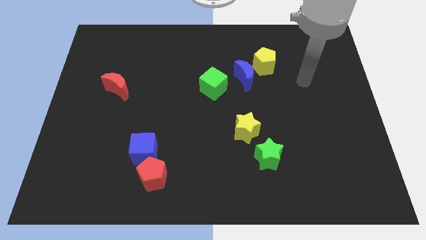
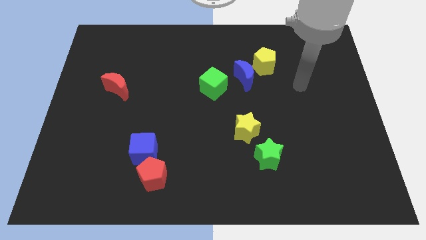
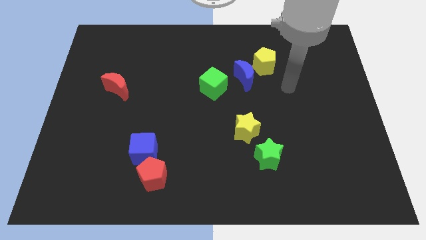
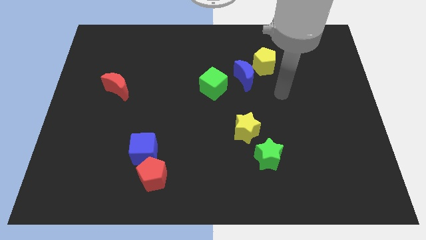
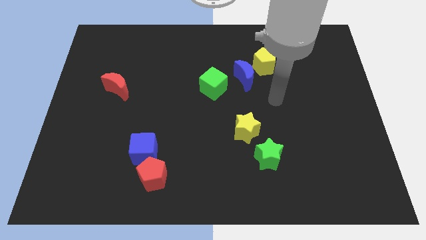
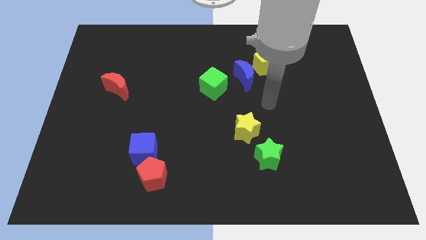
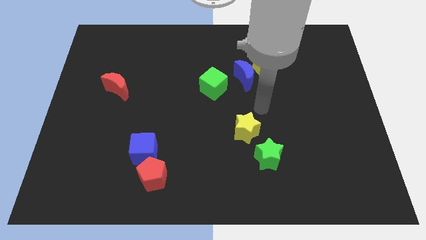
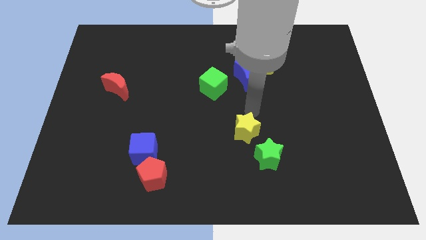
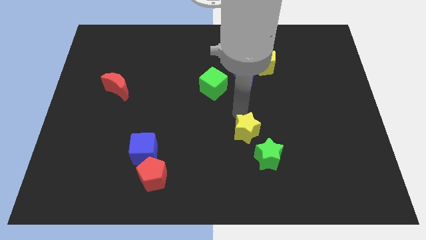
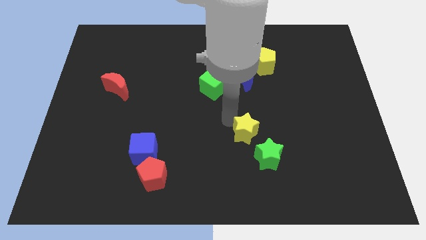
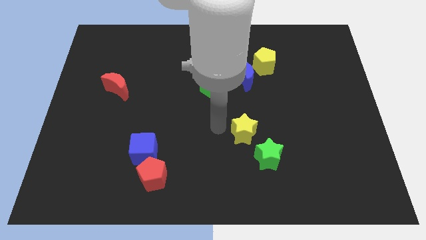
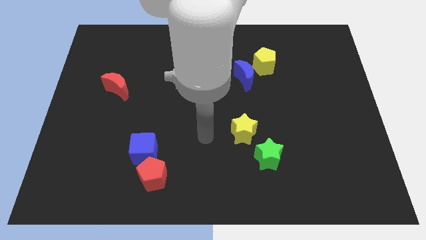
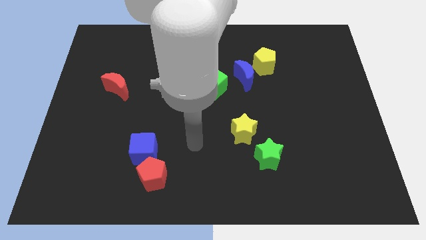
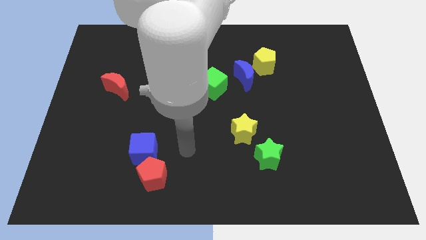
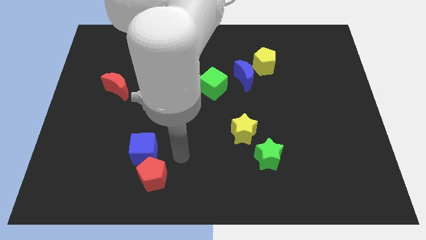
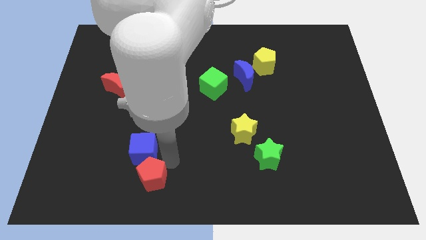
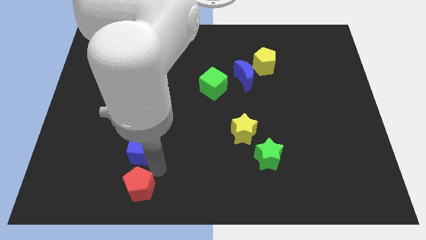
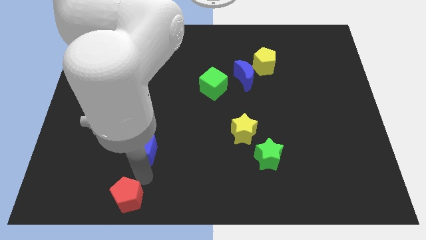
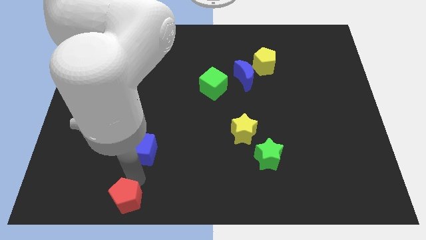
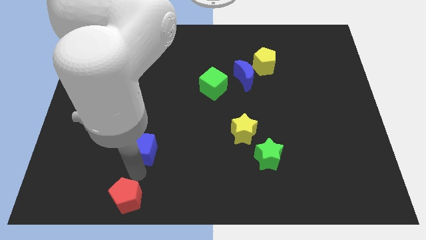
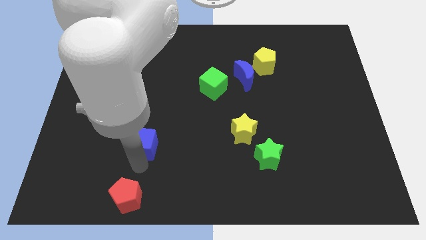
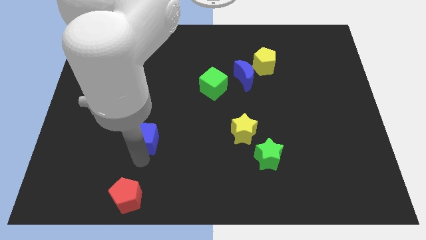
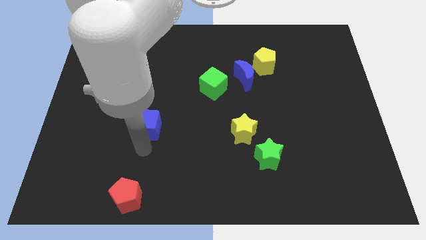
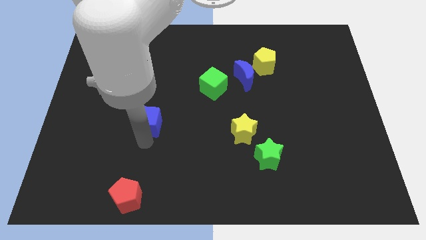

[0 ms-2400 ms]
slightly move the blue cube up

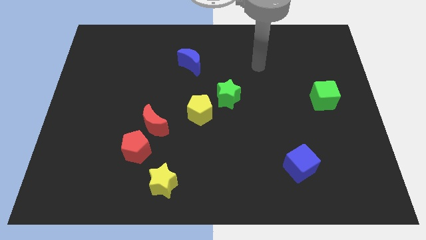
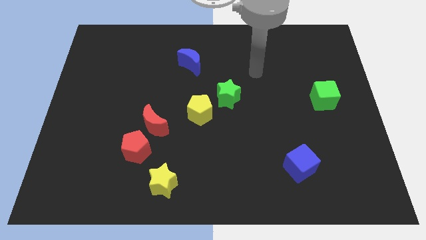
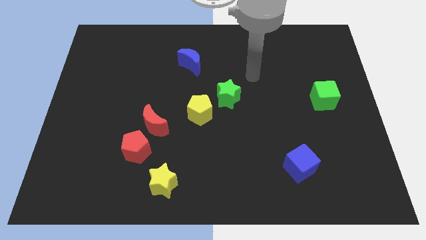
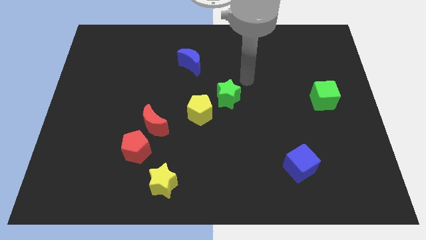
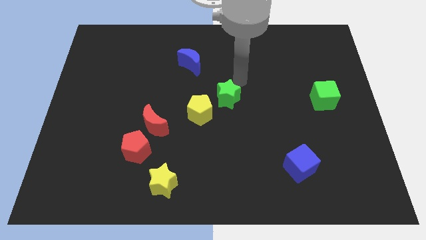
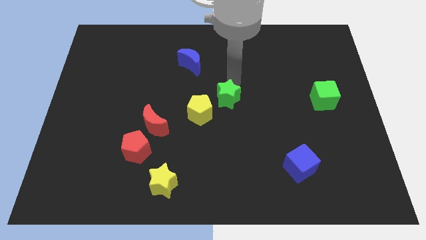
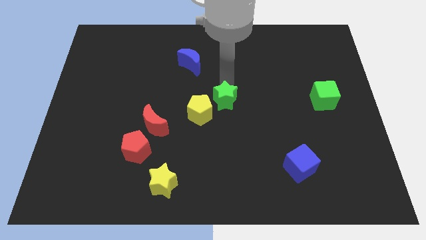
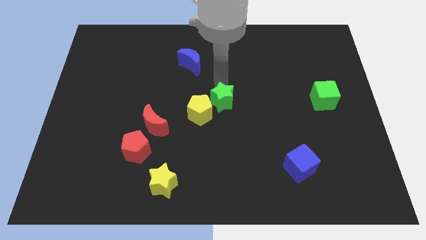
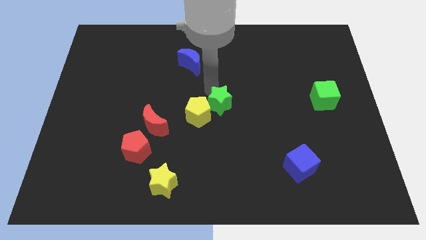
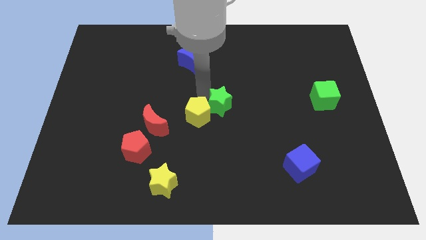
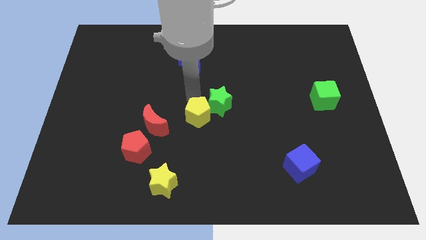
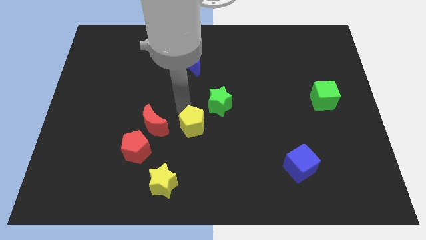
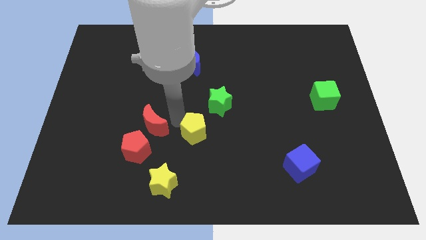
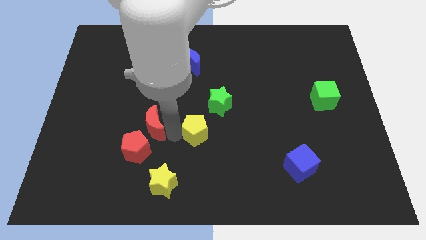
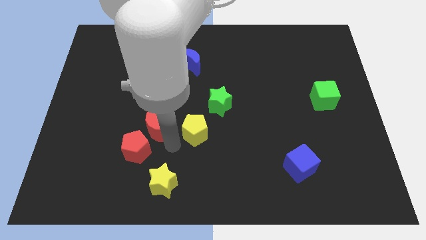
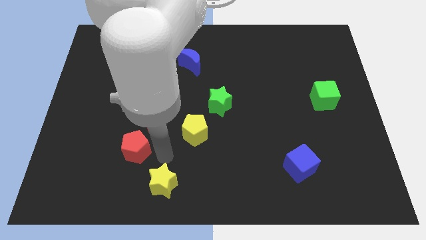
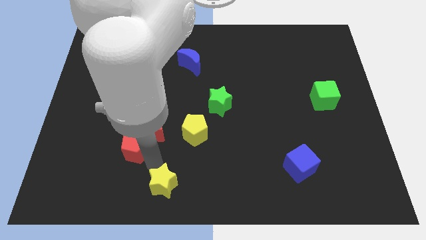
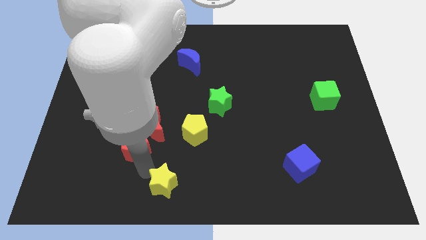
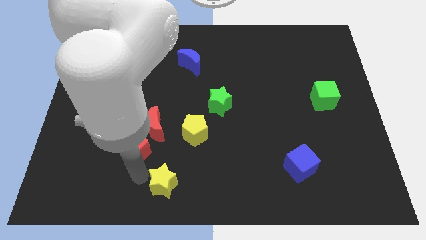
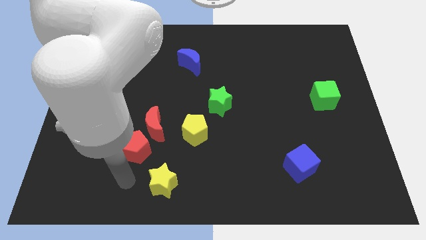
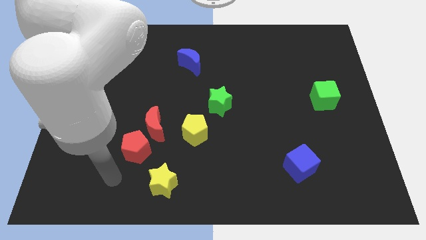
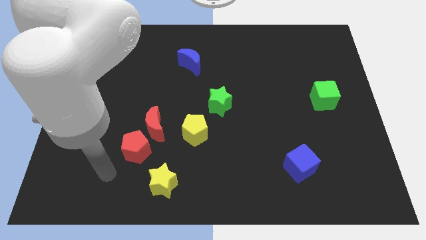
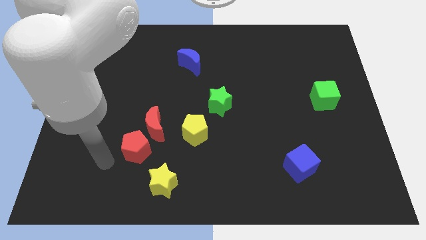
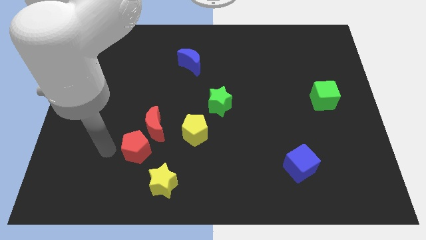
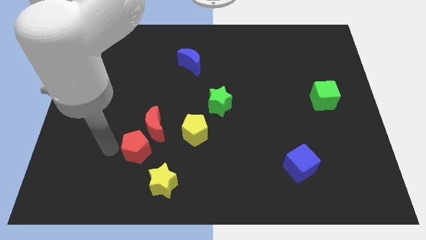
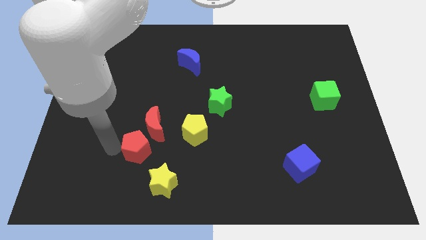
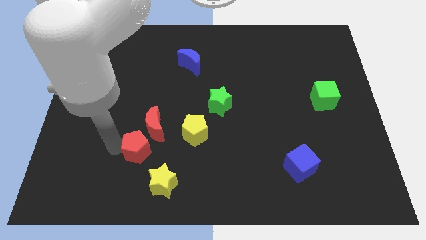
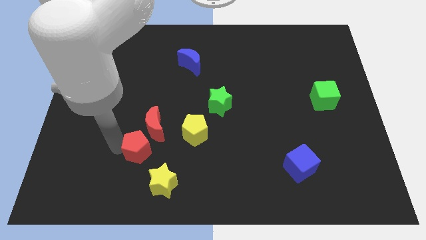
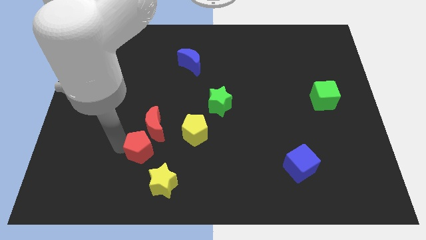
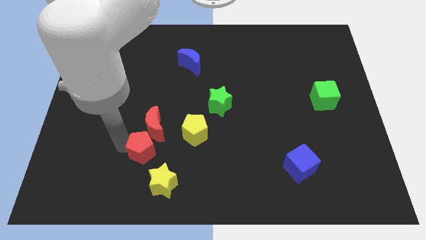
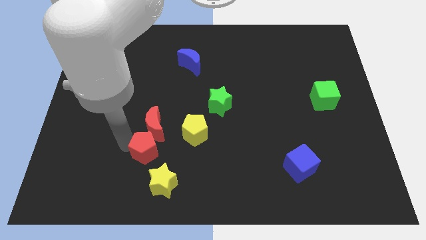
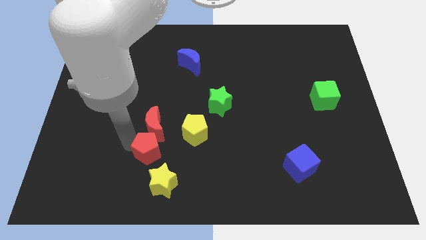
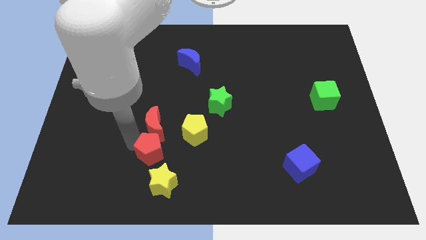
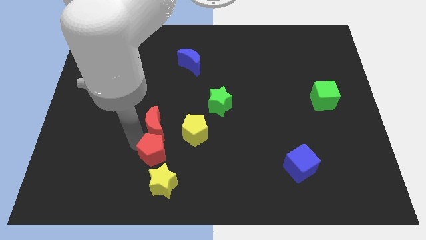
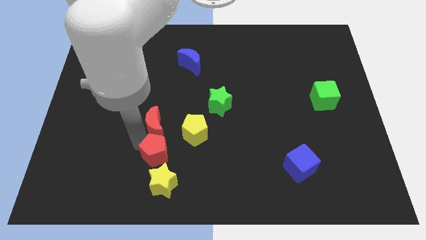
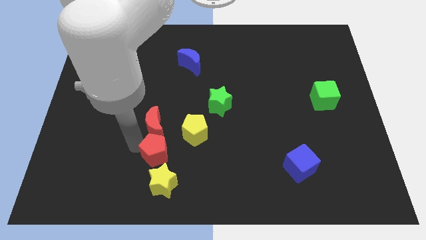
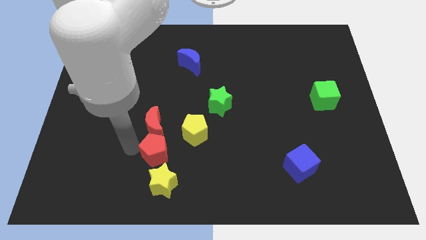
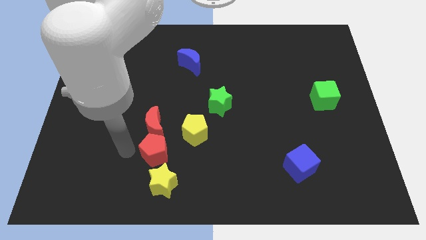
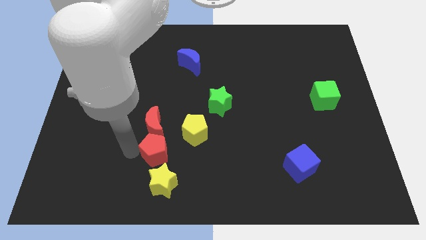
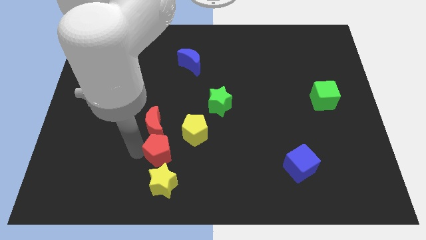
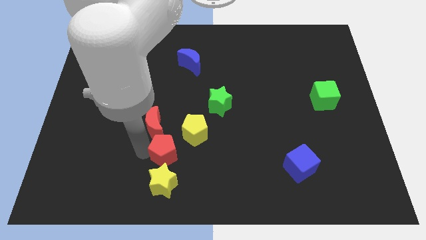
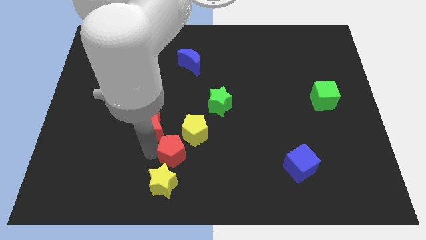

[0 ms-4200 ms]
move the red pentagon right a bit

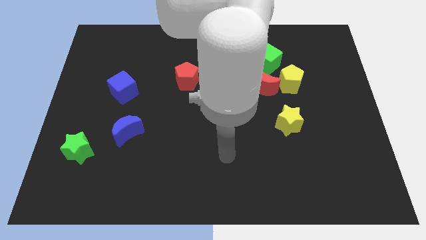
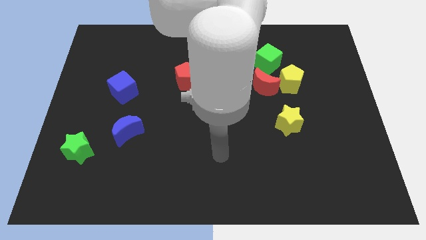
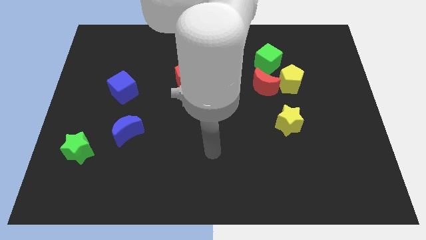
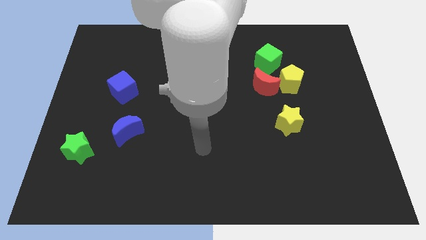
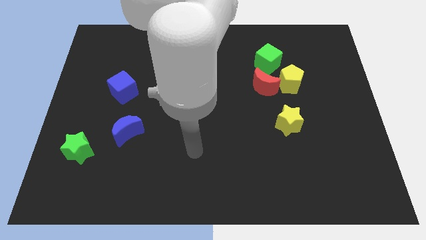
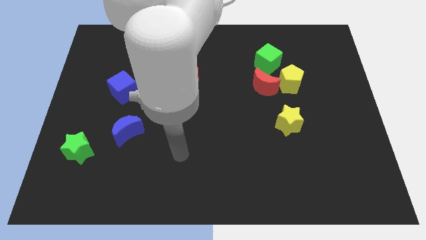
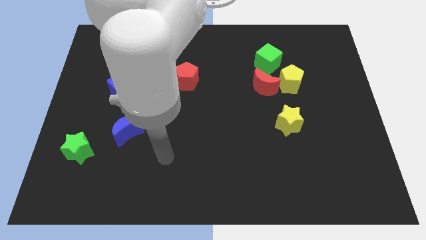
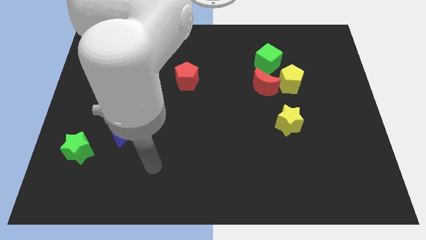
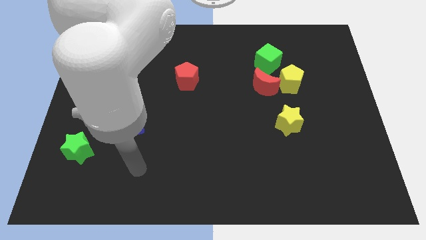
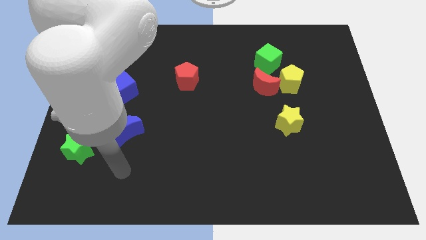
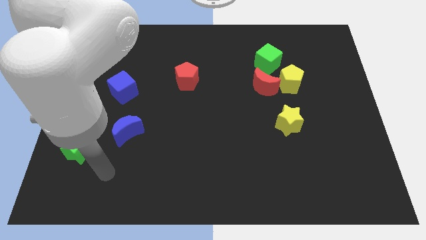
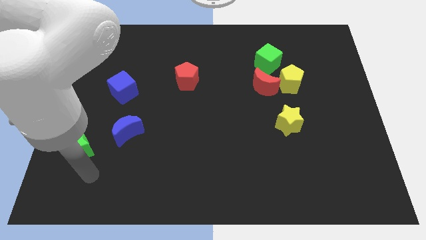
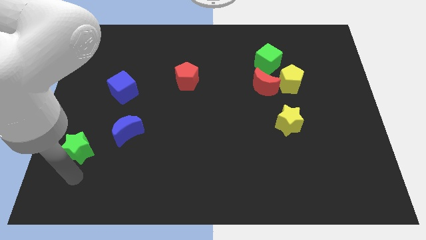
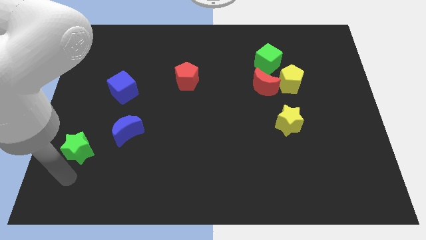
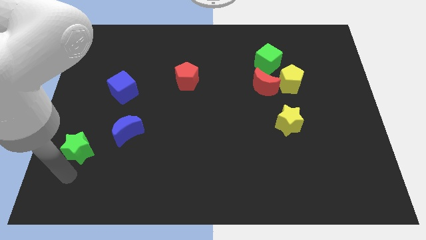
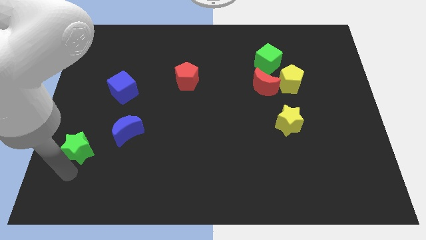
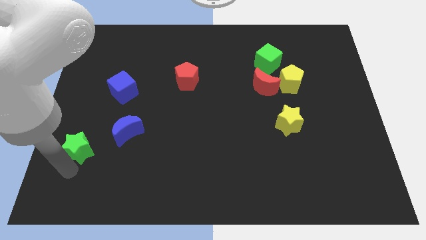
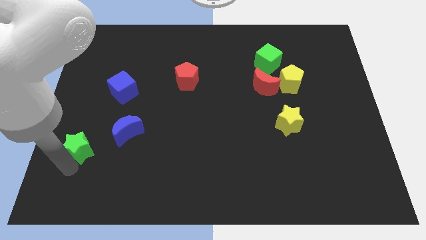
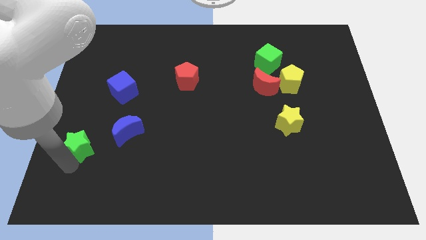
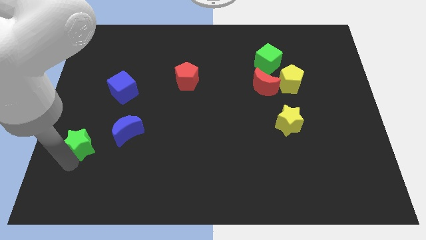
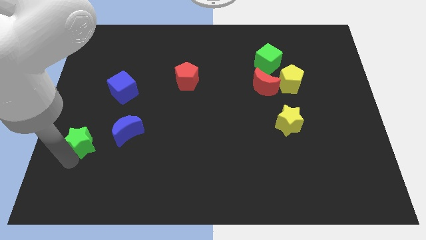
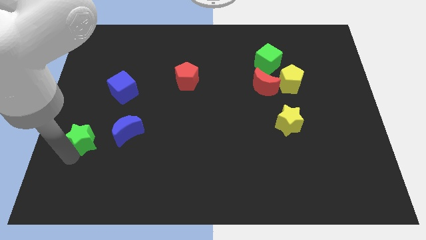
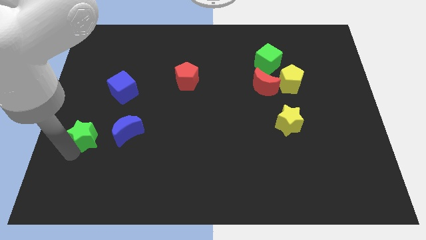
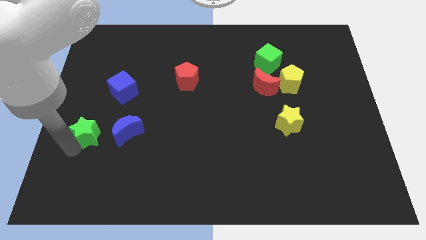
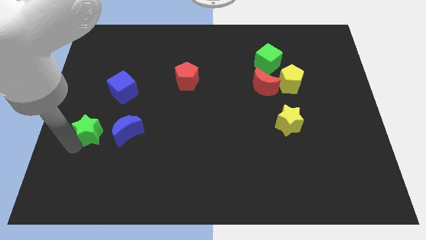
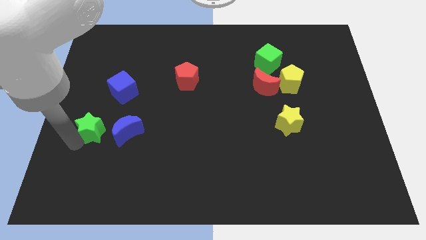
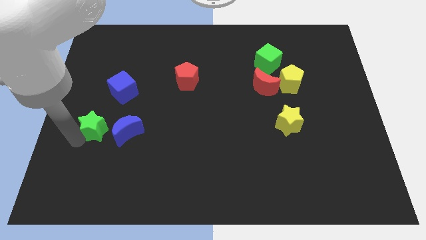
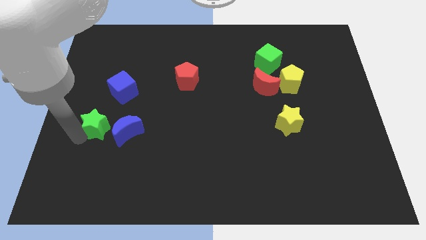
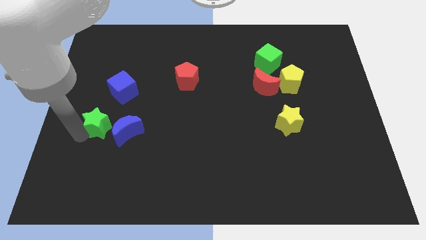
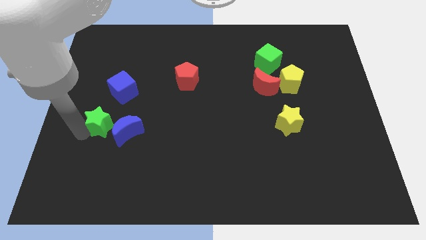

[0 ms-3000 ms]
slightly push the green star diagonally up and to the right
